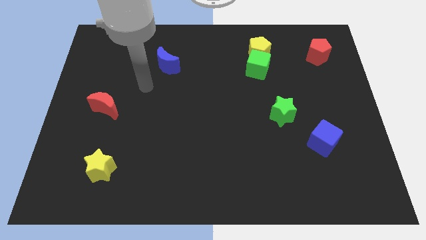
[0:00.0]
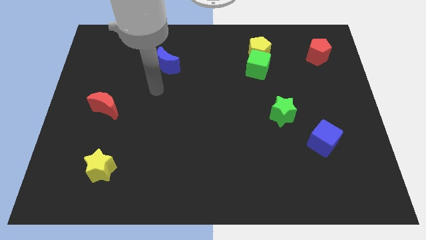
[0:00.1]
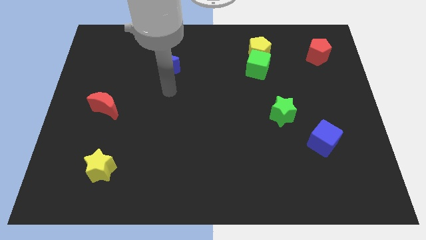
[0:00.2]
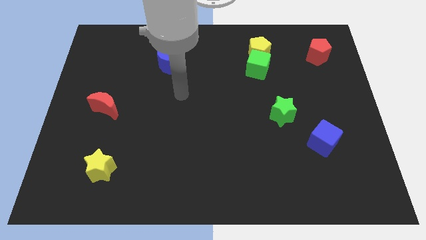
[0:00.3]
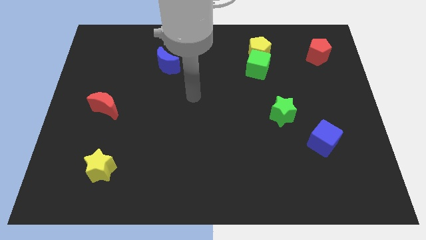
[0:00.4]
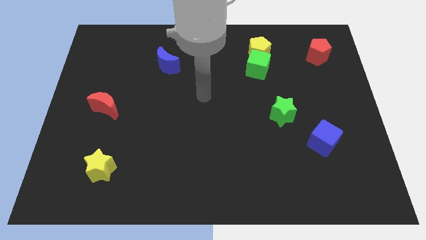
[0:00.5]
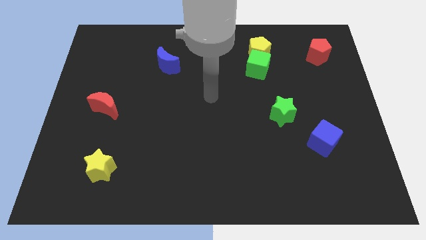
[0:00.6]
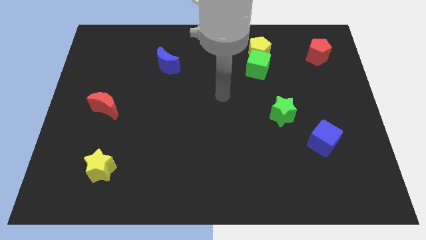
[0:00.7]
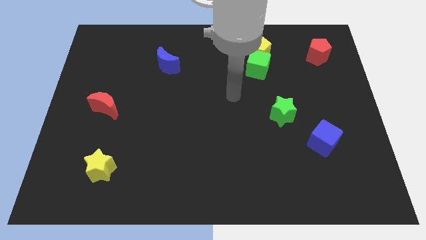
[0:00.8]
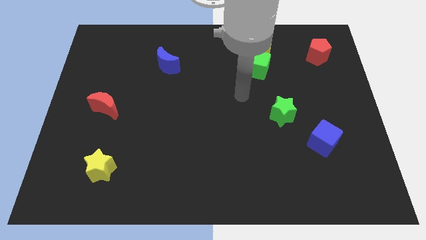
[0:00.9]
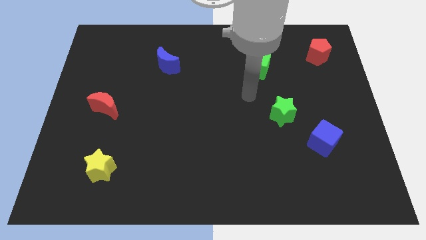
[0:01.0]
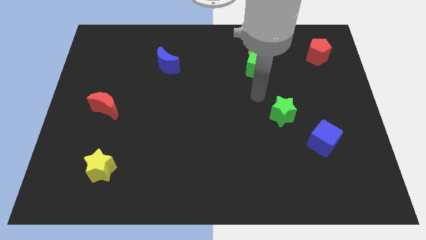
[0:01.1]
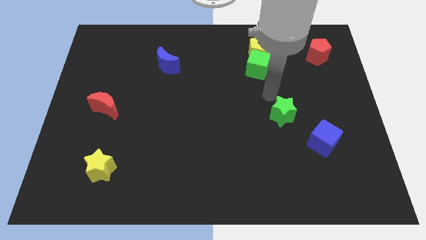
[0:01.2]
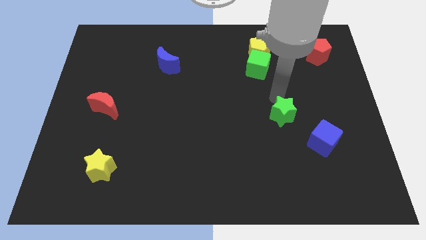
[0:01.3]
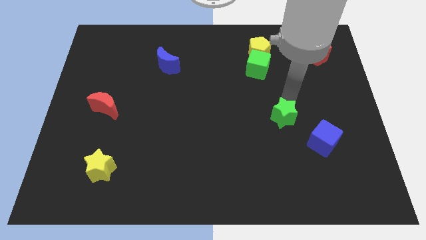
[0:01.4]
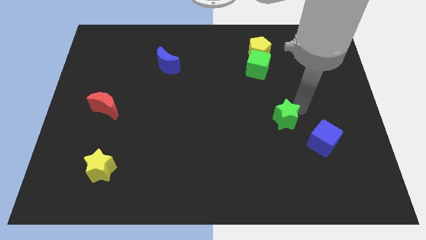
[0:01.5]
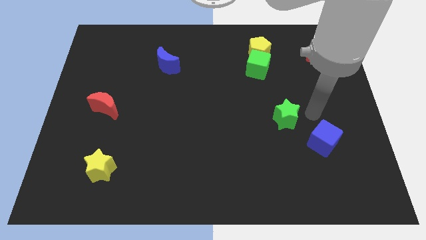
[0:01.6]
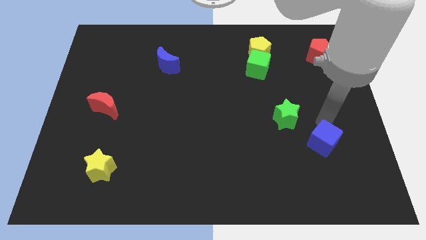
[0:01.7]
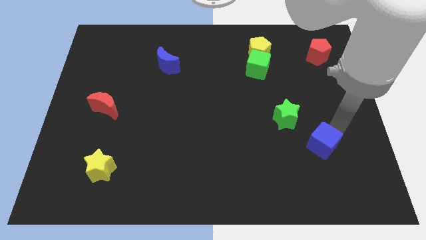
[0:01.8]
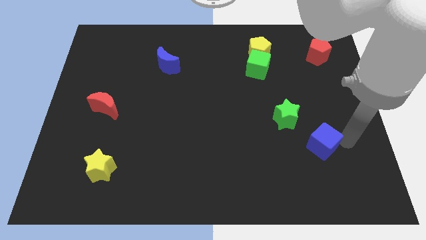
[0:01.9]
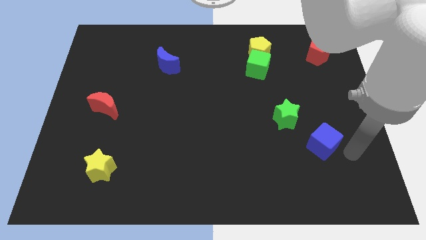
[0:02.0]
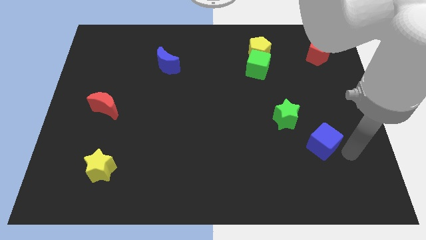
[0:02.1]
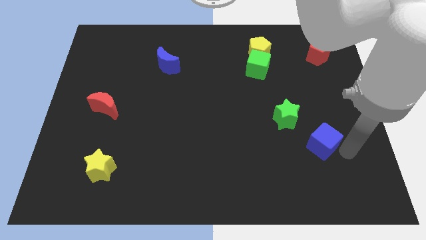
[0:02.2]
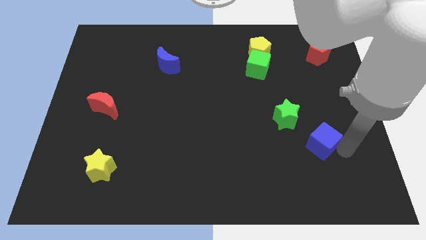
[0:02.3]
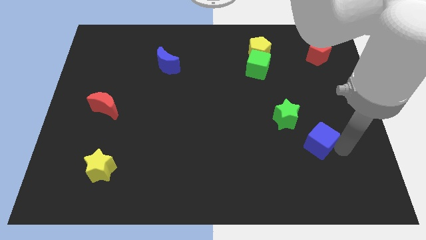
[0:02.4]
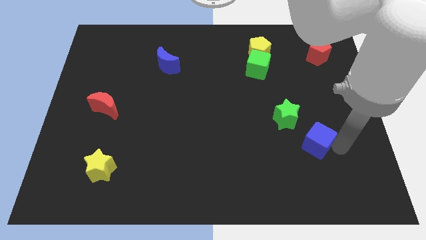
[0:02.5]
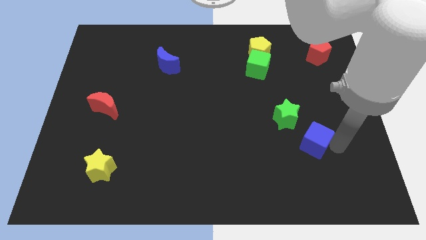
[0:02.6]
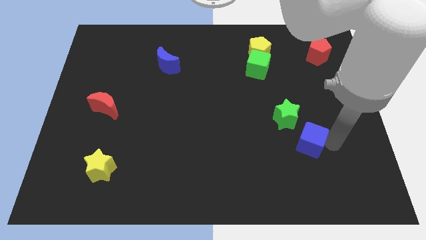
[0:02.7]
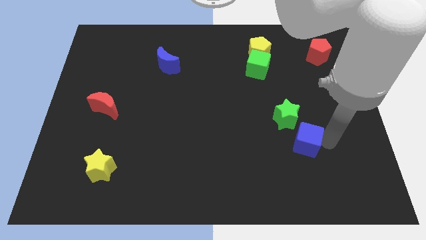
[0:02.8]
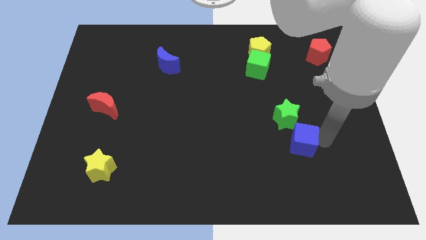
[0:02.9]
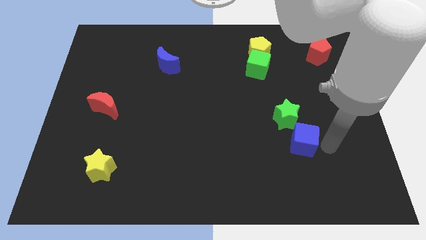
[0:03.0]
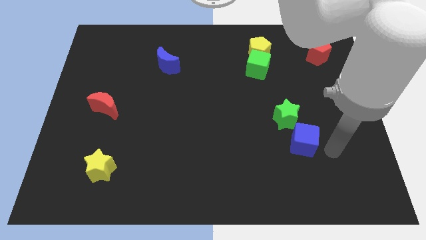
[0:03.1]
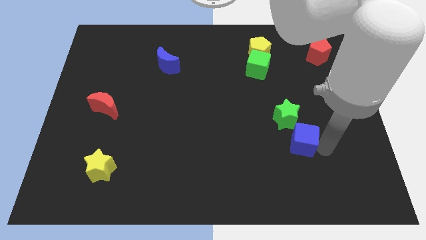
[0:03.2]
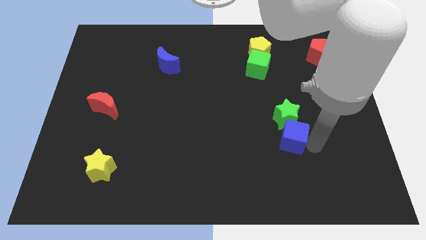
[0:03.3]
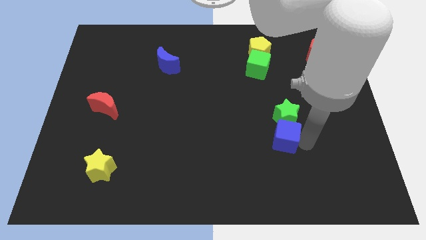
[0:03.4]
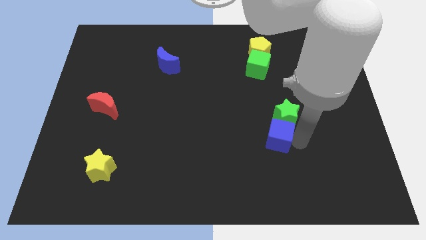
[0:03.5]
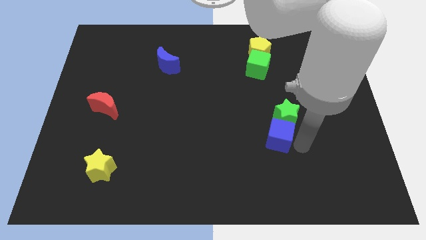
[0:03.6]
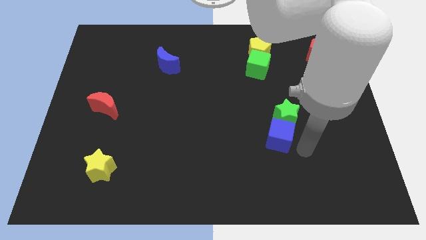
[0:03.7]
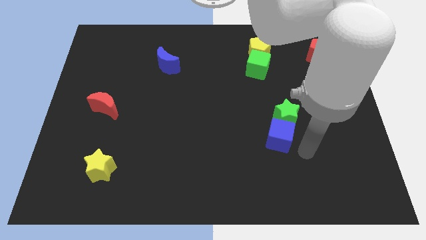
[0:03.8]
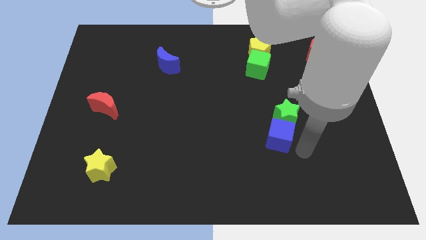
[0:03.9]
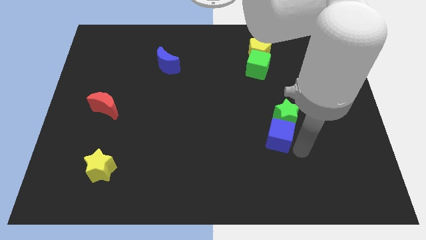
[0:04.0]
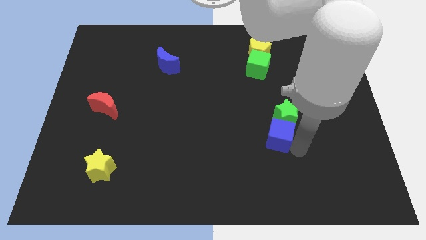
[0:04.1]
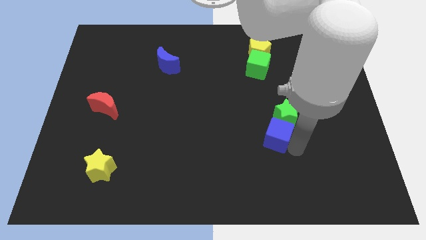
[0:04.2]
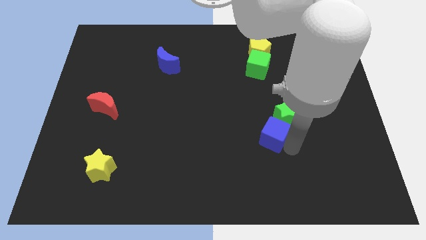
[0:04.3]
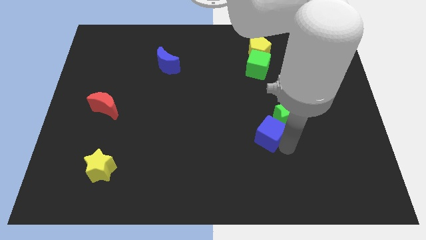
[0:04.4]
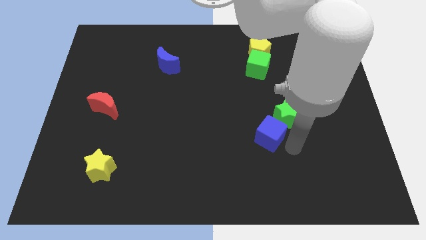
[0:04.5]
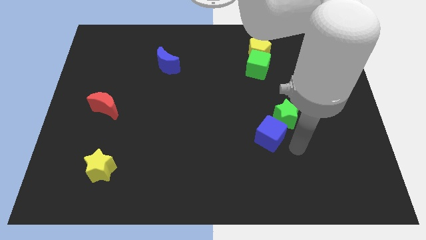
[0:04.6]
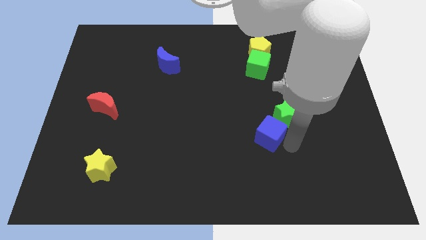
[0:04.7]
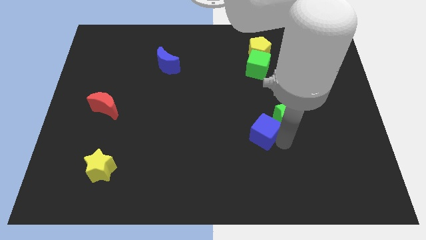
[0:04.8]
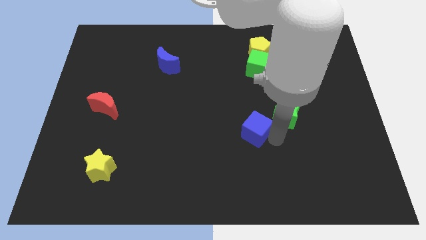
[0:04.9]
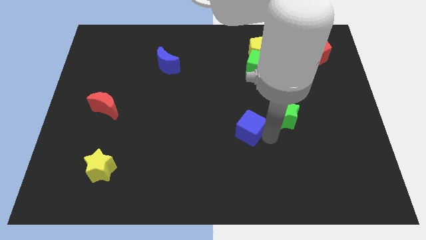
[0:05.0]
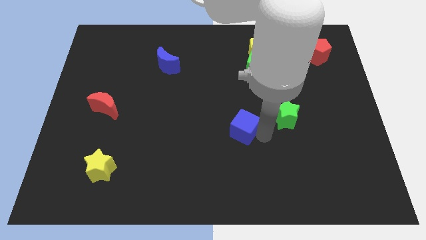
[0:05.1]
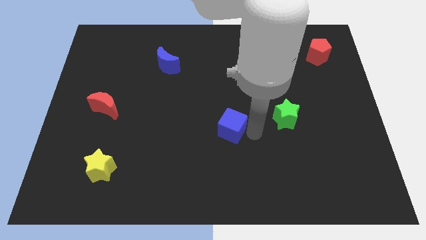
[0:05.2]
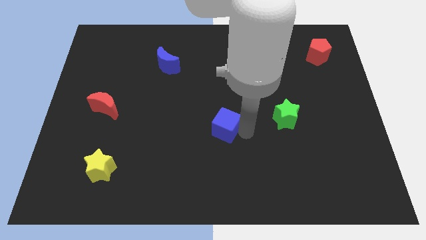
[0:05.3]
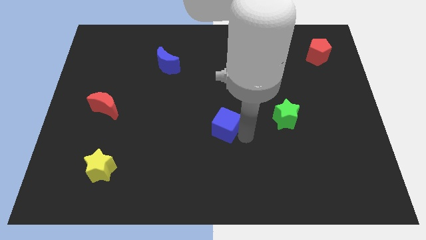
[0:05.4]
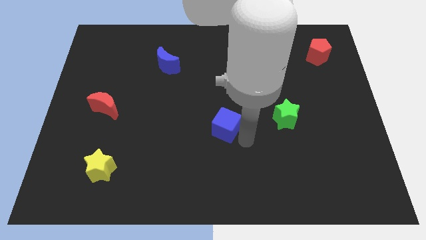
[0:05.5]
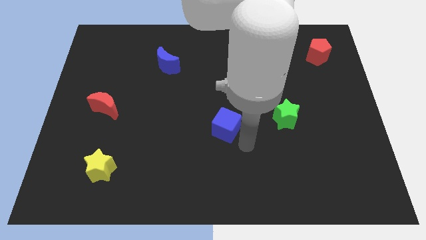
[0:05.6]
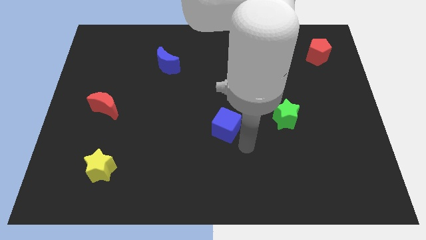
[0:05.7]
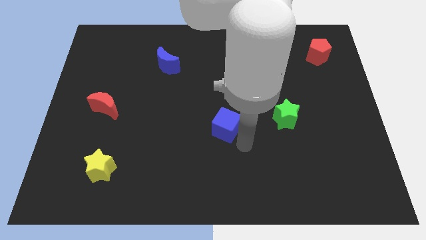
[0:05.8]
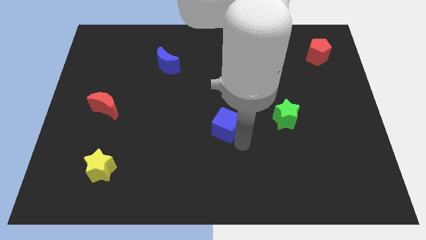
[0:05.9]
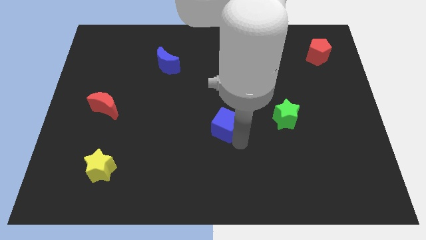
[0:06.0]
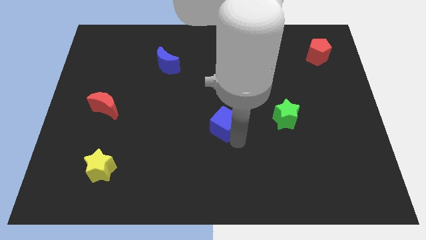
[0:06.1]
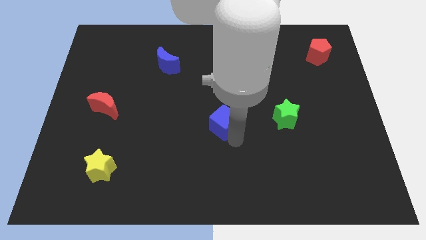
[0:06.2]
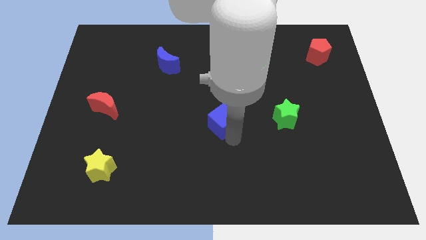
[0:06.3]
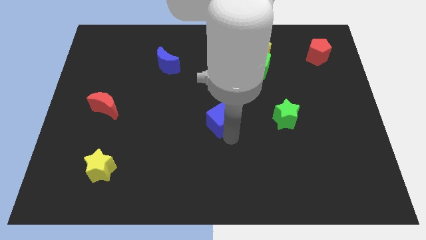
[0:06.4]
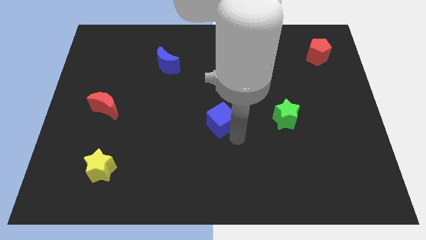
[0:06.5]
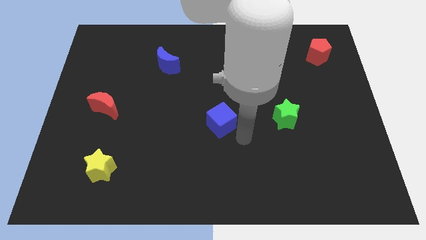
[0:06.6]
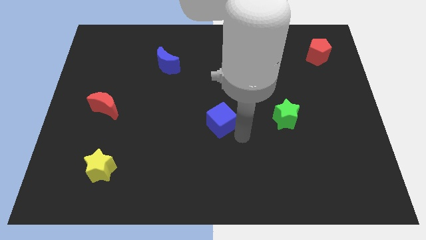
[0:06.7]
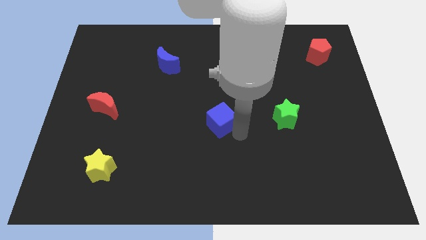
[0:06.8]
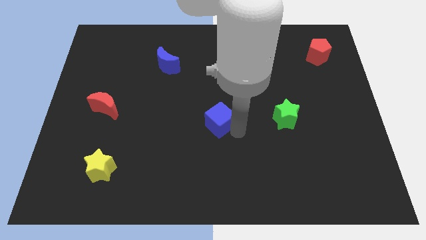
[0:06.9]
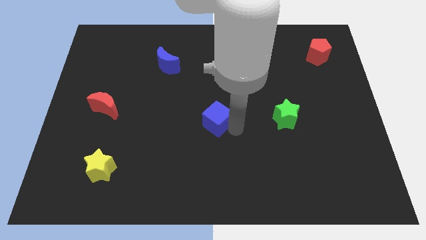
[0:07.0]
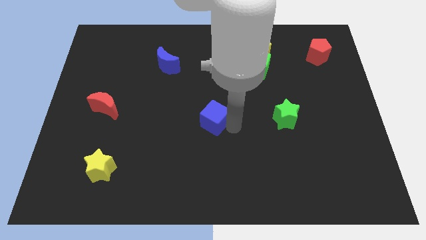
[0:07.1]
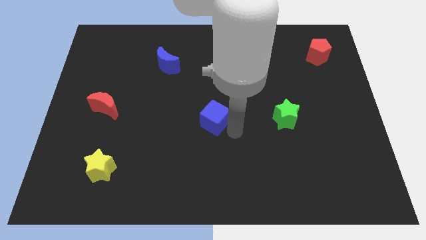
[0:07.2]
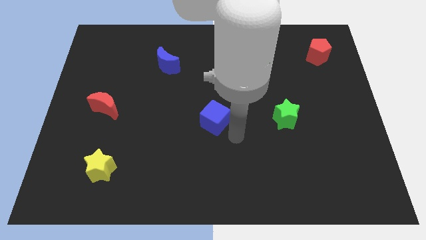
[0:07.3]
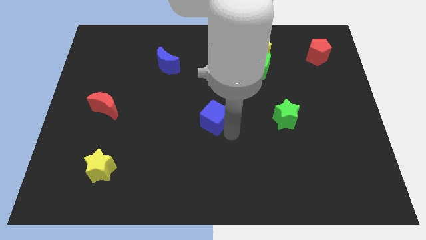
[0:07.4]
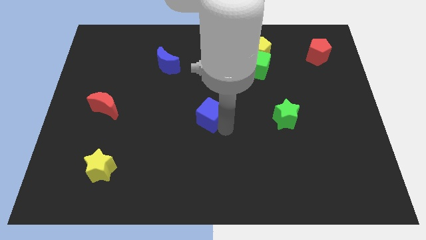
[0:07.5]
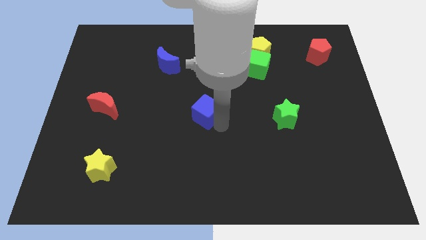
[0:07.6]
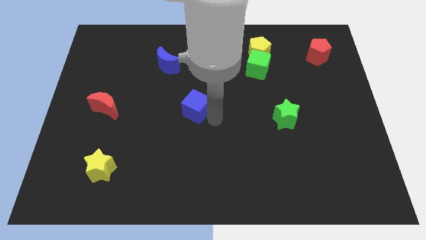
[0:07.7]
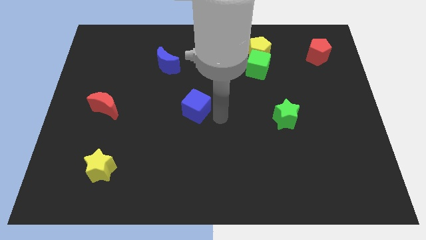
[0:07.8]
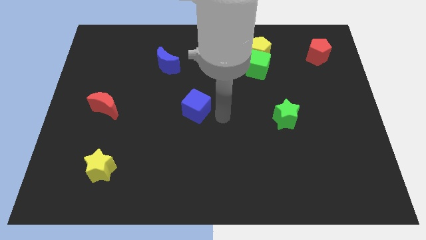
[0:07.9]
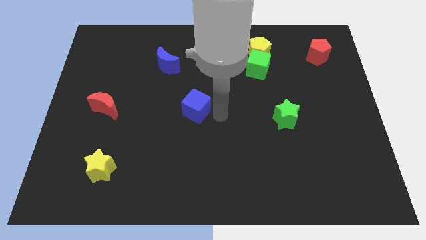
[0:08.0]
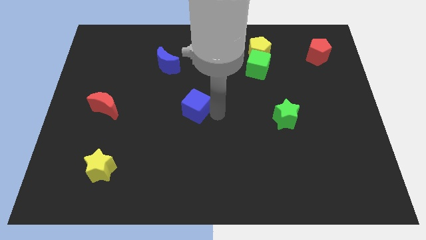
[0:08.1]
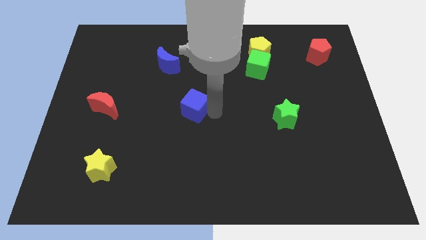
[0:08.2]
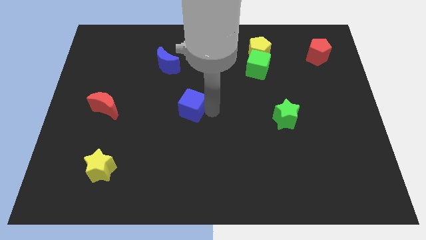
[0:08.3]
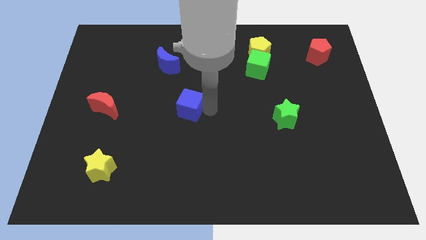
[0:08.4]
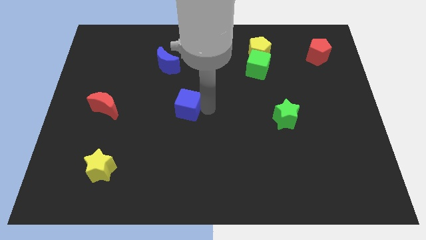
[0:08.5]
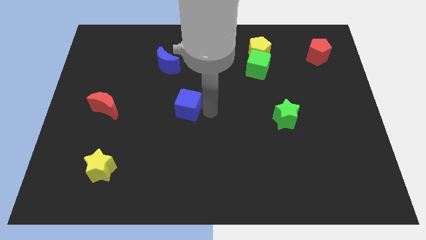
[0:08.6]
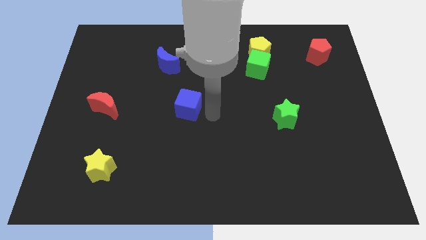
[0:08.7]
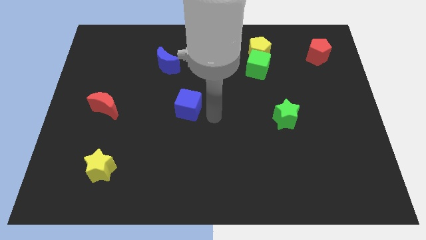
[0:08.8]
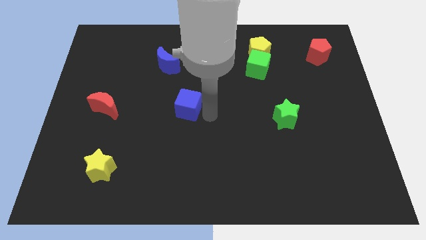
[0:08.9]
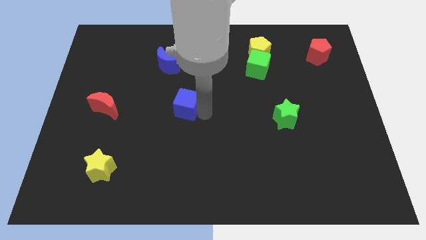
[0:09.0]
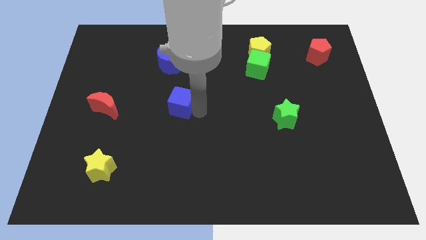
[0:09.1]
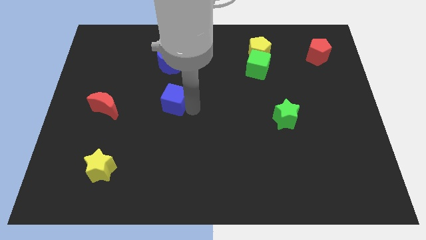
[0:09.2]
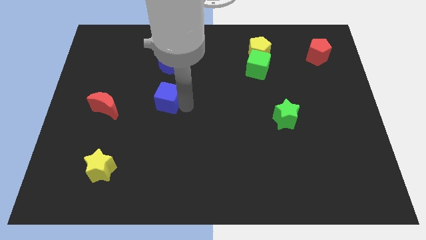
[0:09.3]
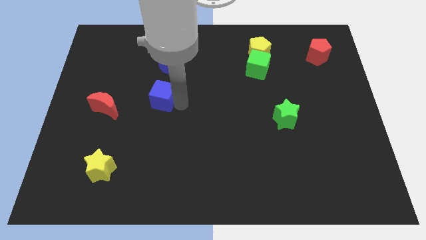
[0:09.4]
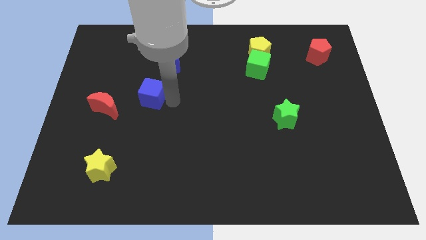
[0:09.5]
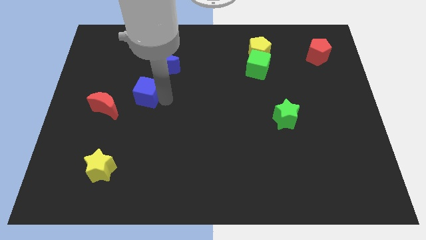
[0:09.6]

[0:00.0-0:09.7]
push the blue cube to the top right side of the red moon
